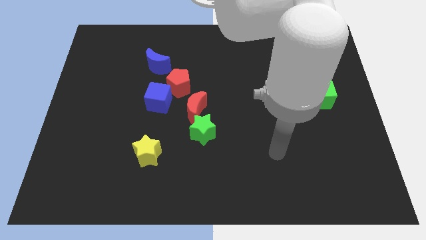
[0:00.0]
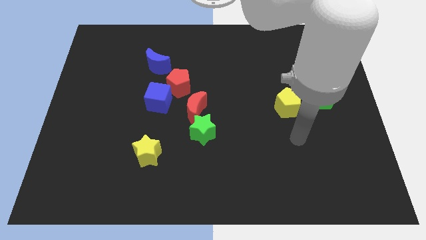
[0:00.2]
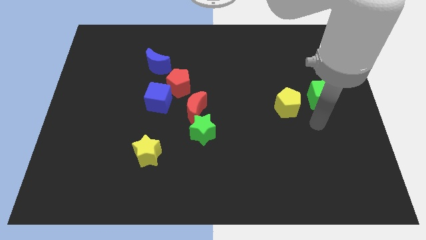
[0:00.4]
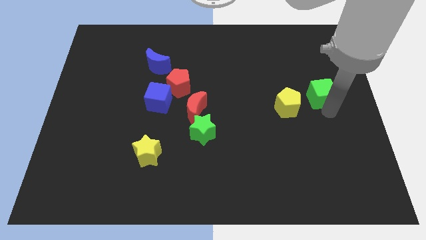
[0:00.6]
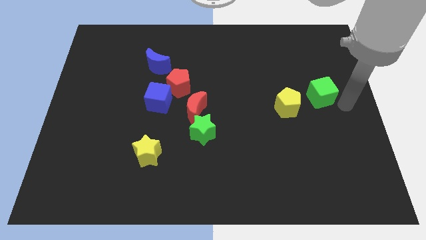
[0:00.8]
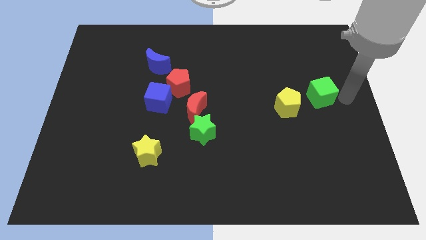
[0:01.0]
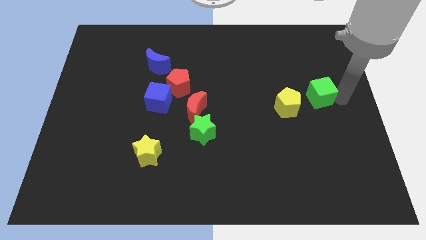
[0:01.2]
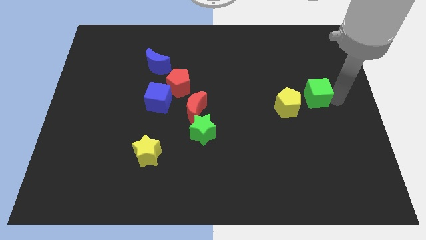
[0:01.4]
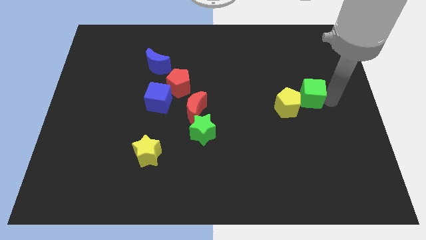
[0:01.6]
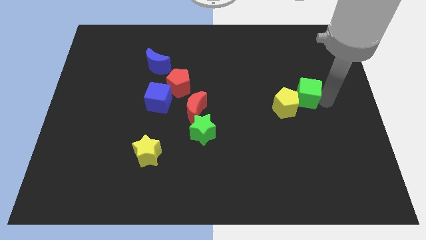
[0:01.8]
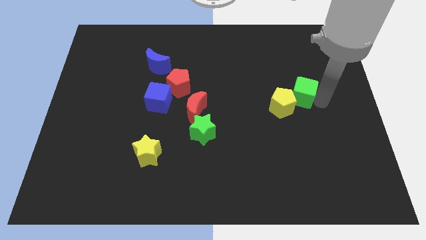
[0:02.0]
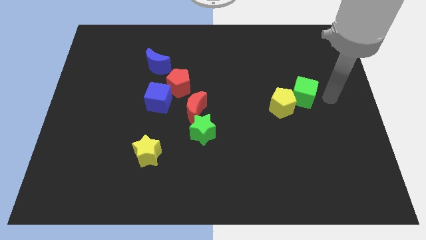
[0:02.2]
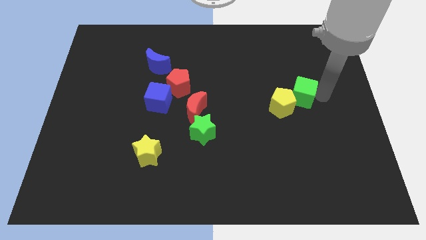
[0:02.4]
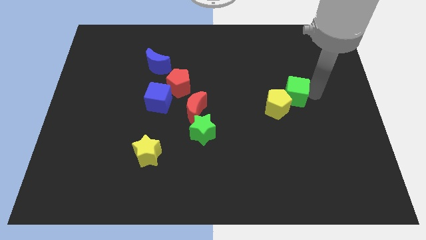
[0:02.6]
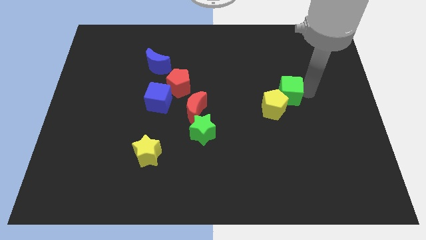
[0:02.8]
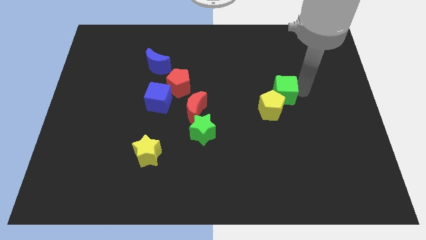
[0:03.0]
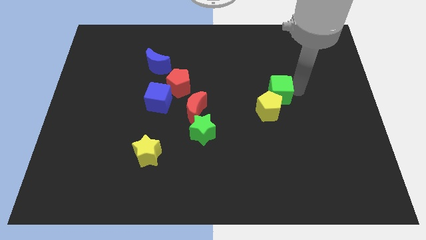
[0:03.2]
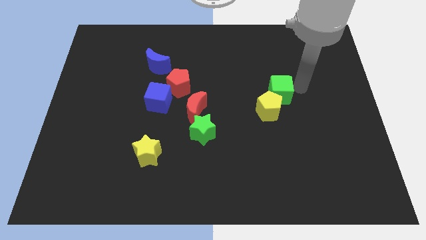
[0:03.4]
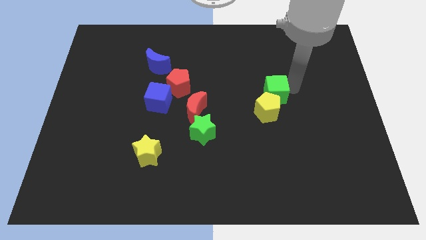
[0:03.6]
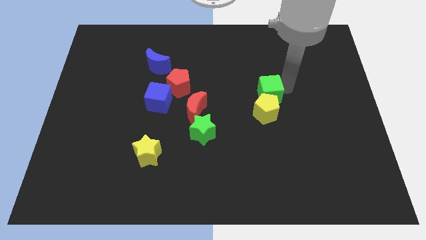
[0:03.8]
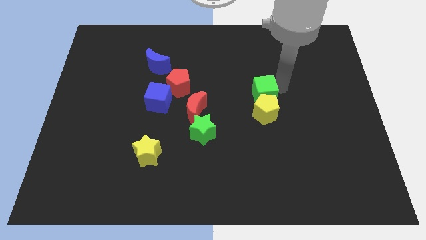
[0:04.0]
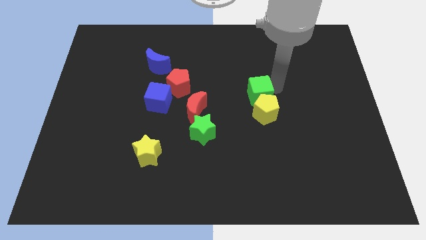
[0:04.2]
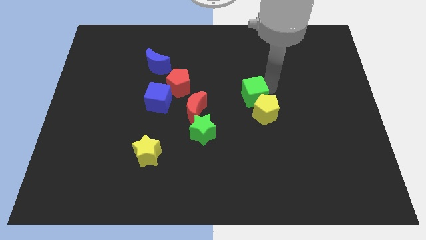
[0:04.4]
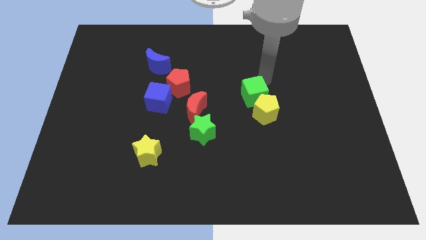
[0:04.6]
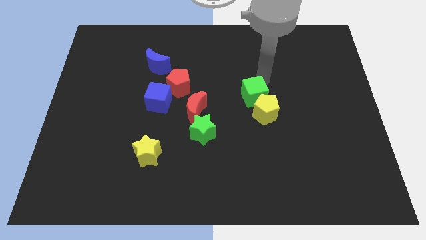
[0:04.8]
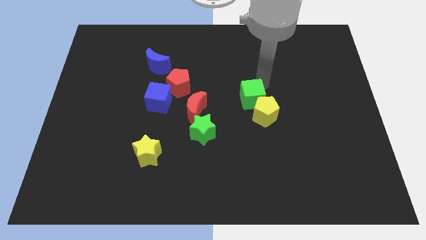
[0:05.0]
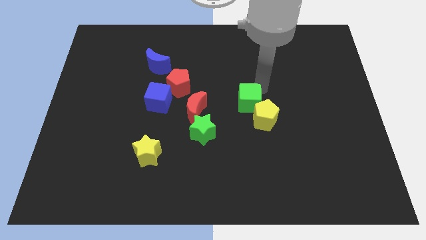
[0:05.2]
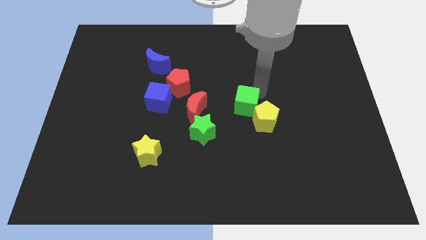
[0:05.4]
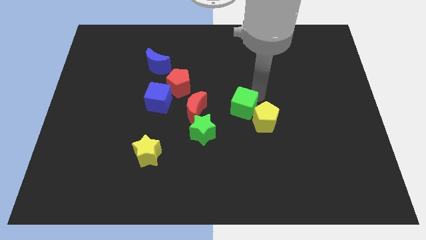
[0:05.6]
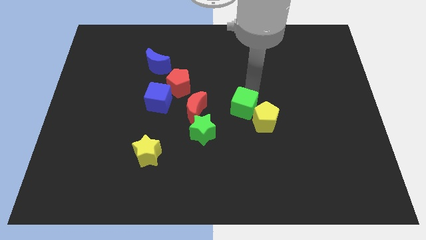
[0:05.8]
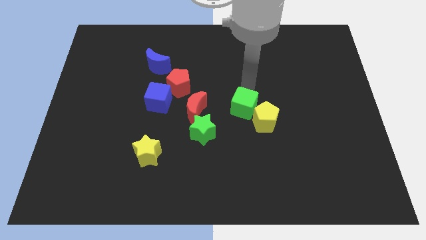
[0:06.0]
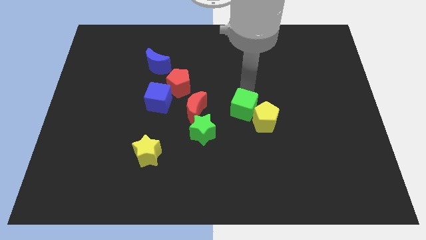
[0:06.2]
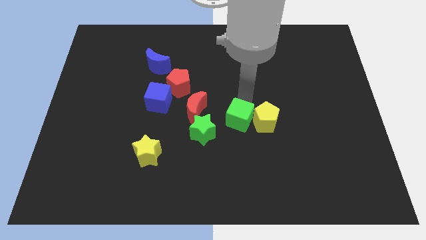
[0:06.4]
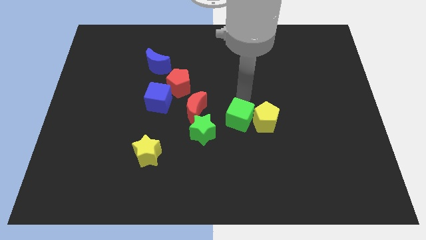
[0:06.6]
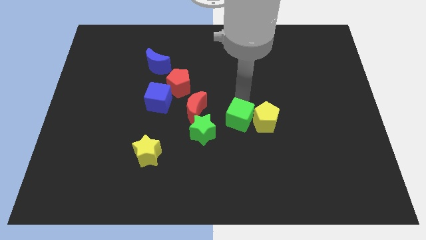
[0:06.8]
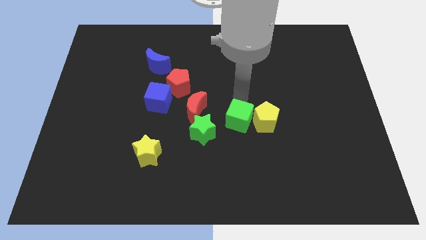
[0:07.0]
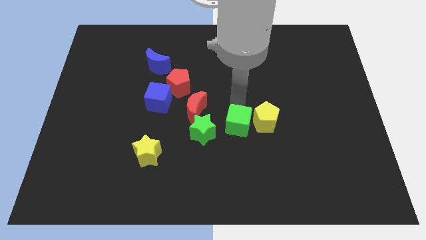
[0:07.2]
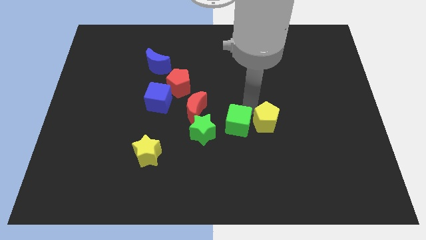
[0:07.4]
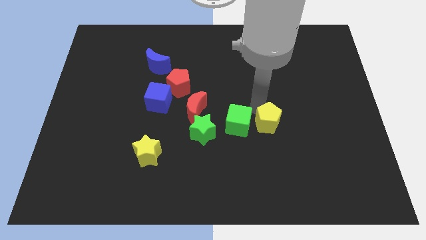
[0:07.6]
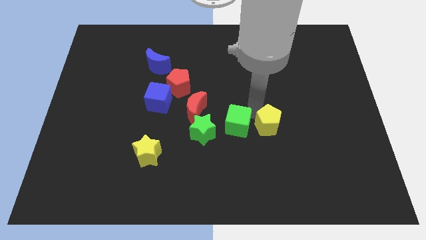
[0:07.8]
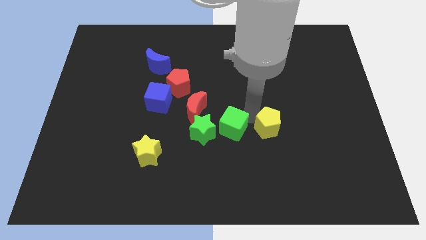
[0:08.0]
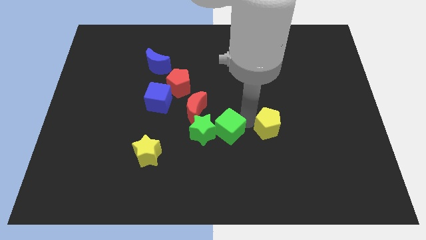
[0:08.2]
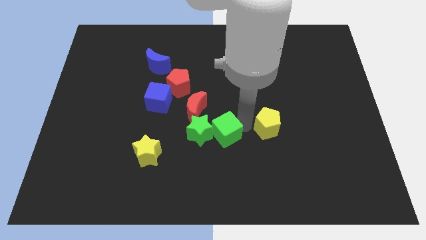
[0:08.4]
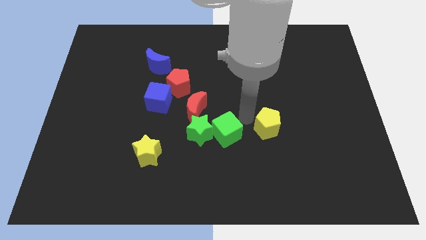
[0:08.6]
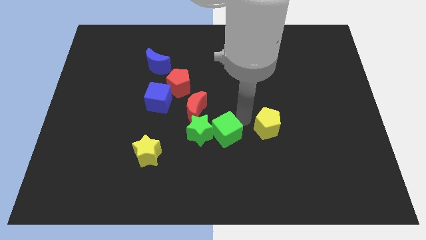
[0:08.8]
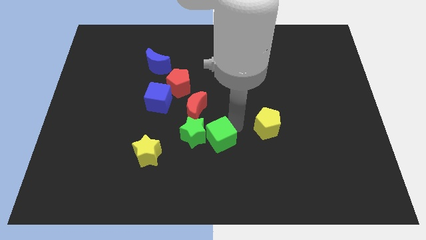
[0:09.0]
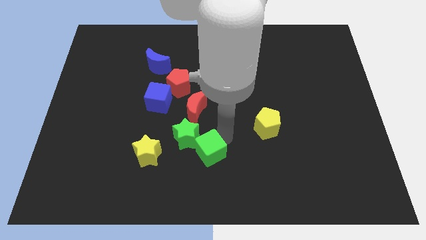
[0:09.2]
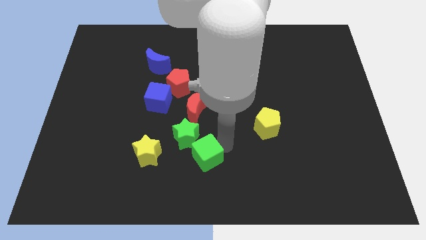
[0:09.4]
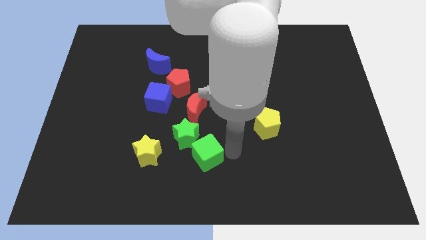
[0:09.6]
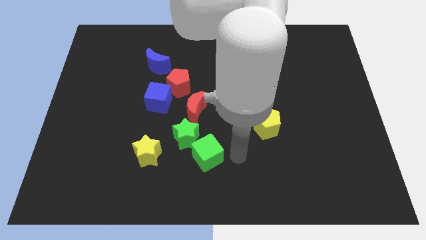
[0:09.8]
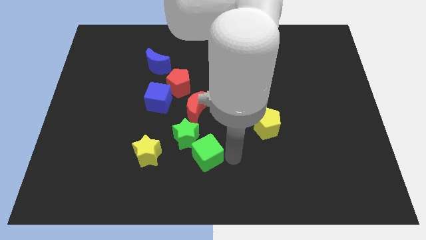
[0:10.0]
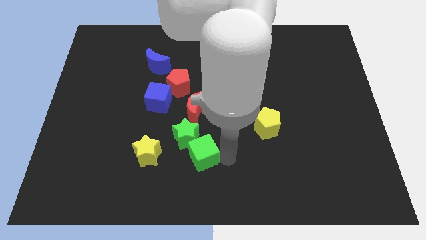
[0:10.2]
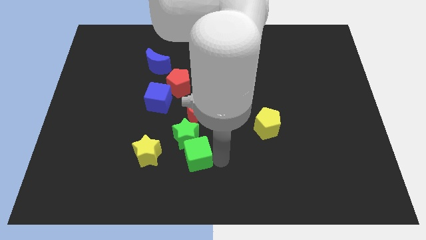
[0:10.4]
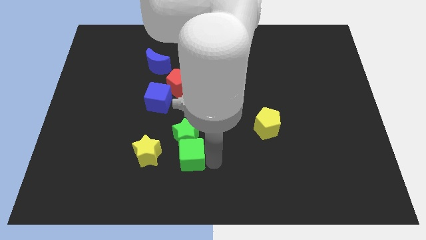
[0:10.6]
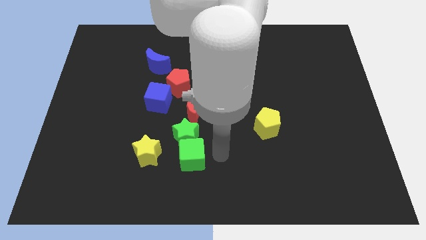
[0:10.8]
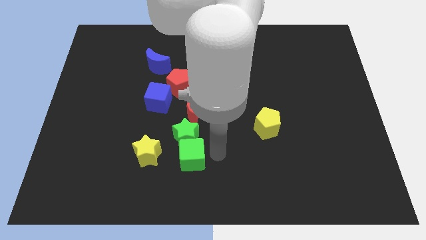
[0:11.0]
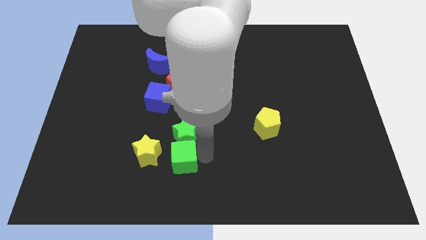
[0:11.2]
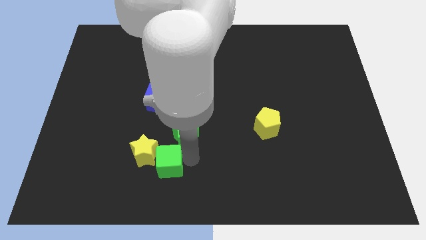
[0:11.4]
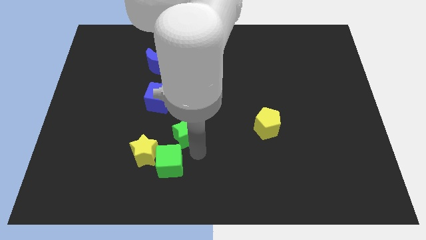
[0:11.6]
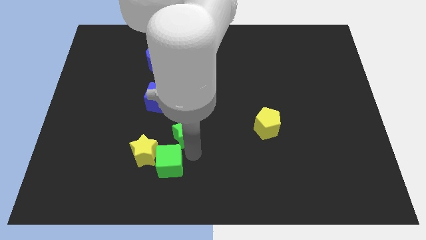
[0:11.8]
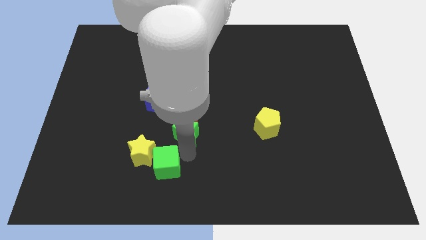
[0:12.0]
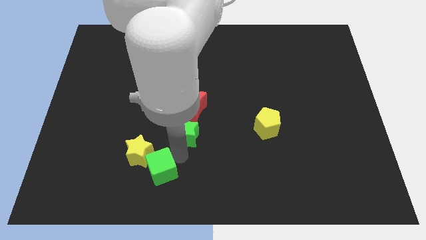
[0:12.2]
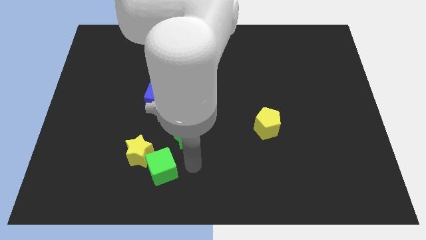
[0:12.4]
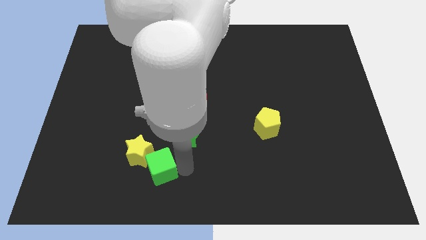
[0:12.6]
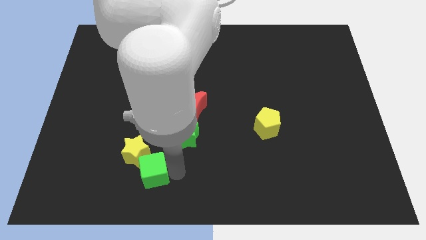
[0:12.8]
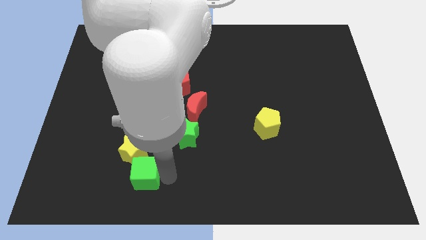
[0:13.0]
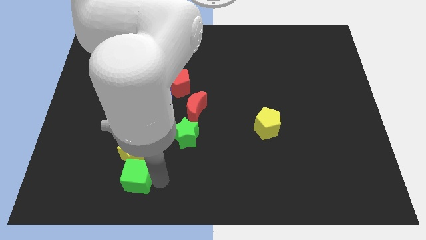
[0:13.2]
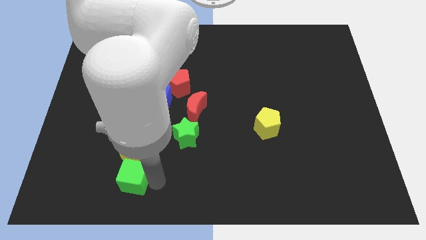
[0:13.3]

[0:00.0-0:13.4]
push the green cube to the bottom left of the yellow star

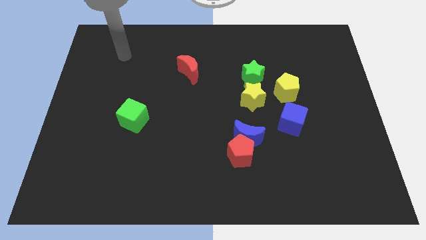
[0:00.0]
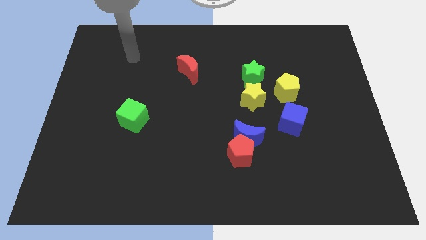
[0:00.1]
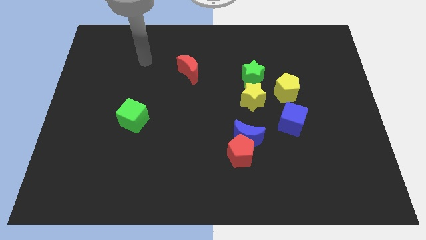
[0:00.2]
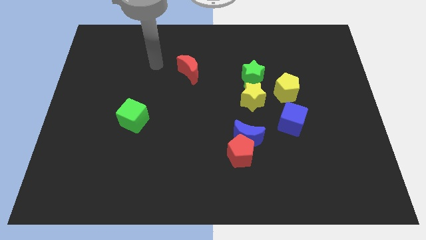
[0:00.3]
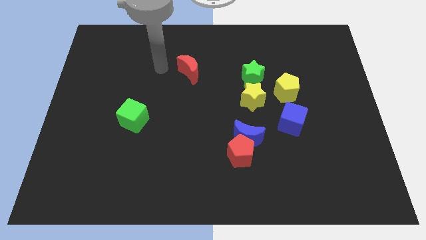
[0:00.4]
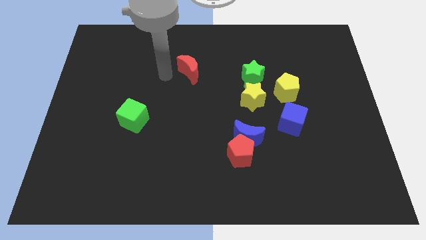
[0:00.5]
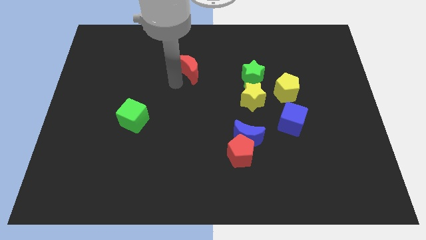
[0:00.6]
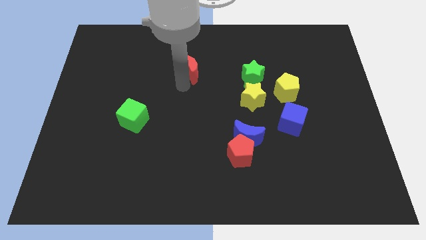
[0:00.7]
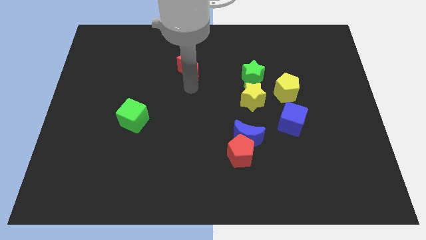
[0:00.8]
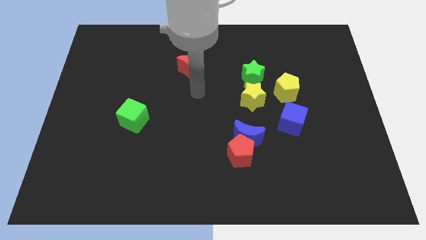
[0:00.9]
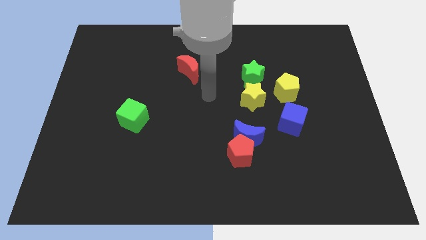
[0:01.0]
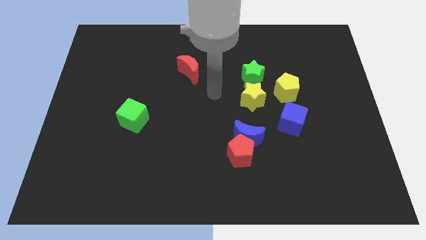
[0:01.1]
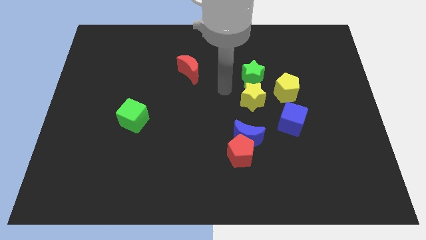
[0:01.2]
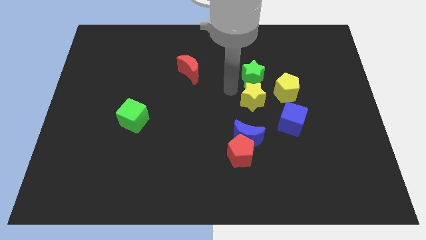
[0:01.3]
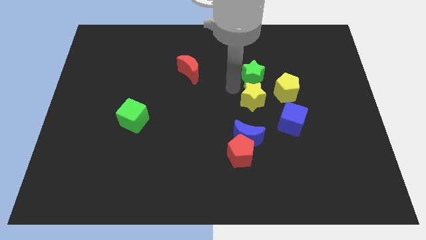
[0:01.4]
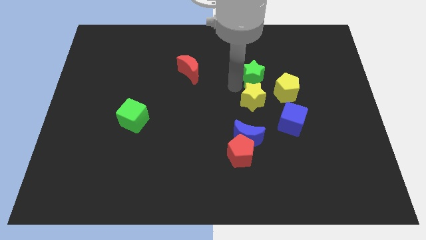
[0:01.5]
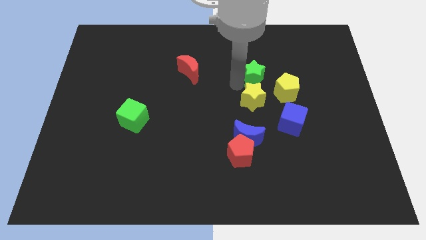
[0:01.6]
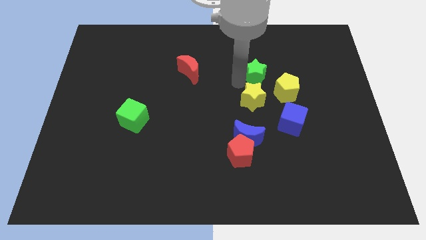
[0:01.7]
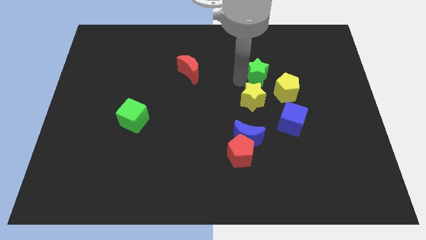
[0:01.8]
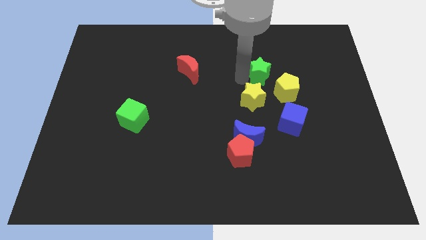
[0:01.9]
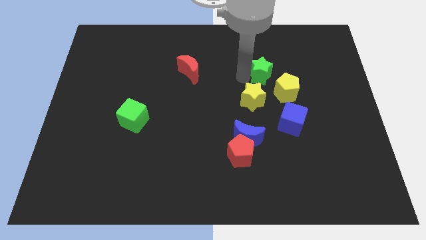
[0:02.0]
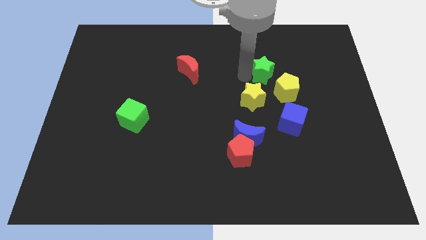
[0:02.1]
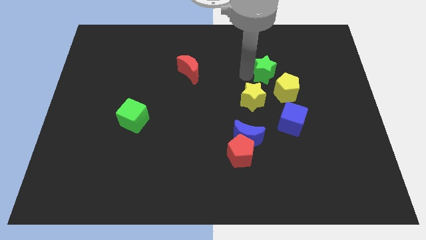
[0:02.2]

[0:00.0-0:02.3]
put the green star to the top side of the yellow pentagon
